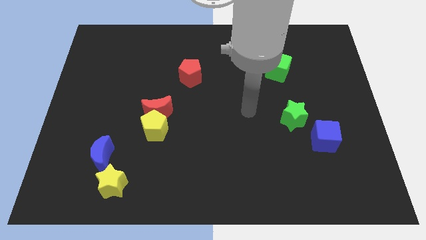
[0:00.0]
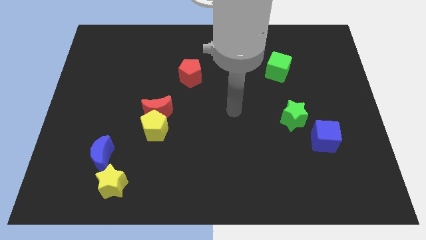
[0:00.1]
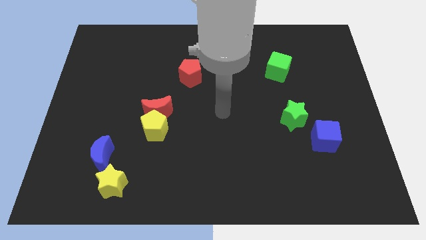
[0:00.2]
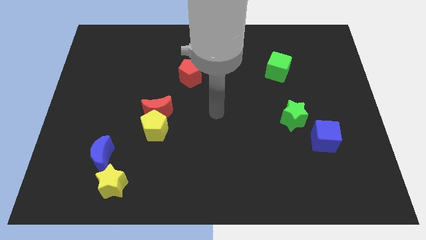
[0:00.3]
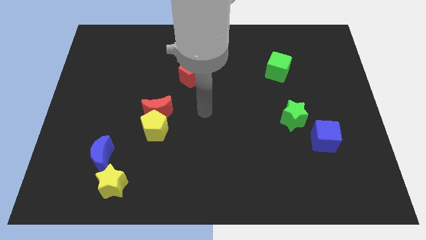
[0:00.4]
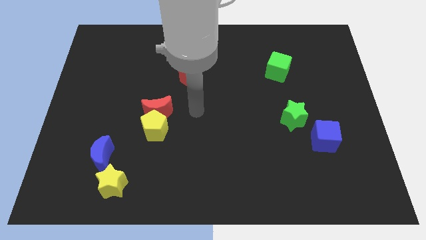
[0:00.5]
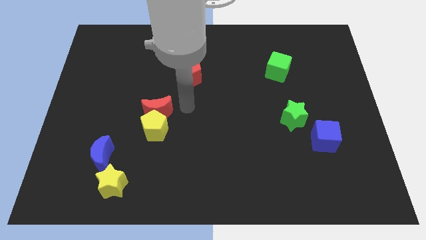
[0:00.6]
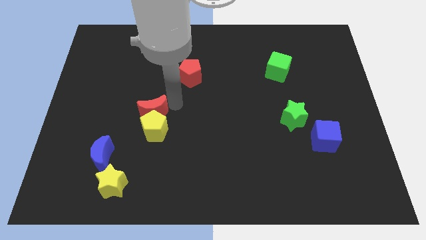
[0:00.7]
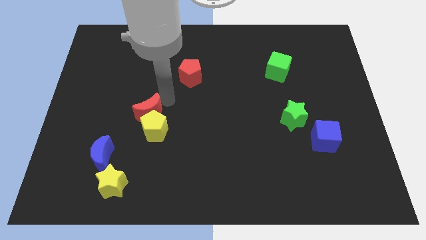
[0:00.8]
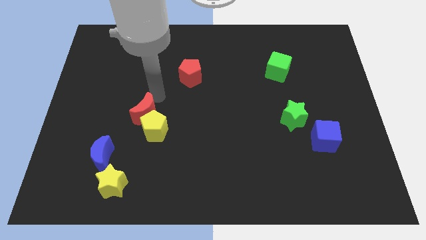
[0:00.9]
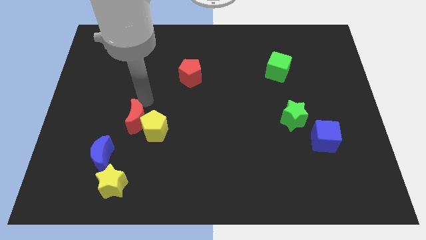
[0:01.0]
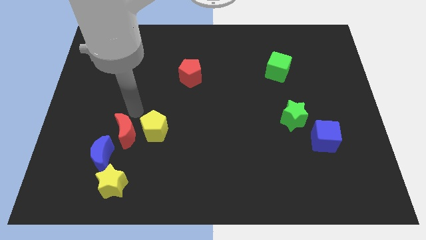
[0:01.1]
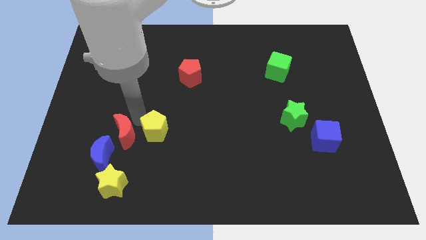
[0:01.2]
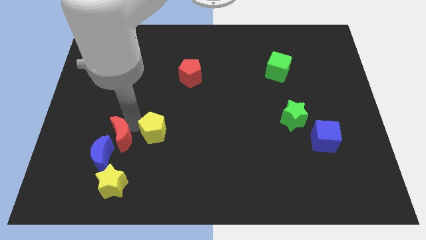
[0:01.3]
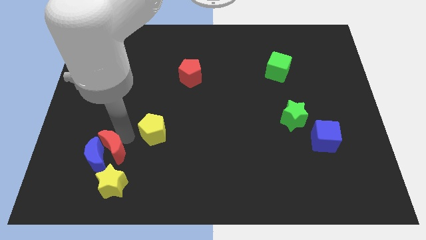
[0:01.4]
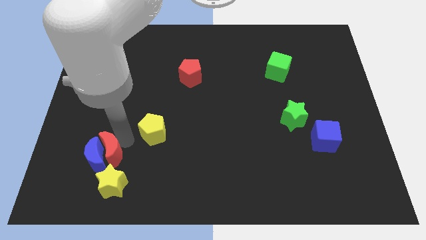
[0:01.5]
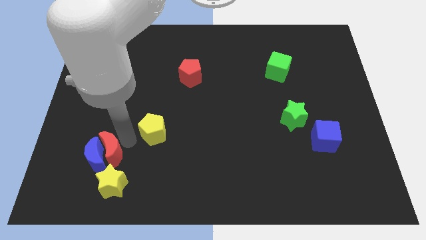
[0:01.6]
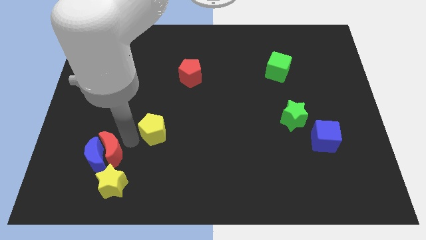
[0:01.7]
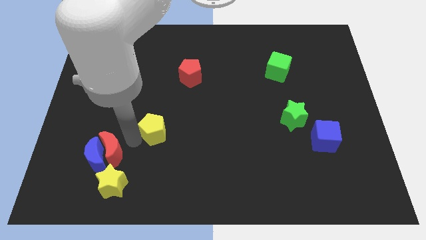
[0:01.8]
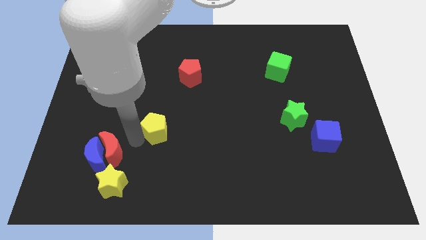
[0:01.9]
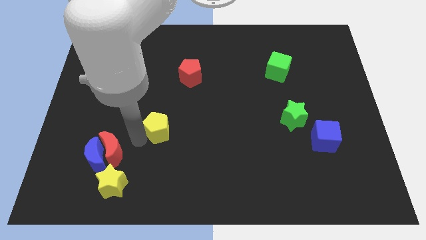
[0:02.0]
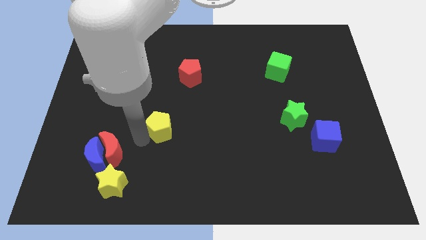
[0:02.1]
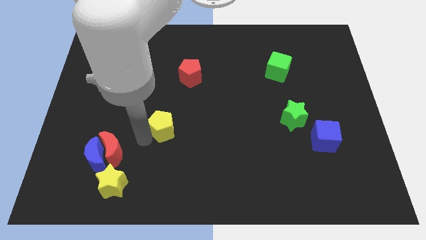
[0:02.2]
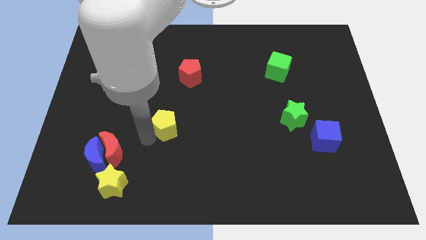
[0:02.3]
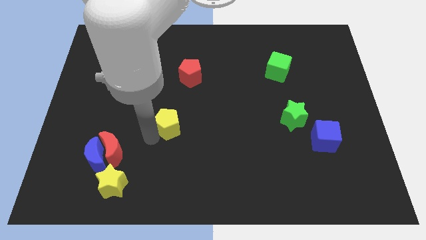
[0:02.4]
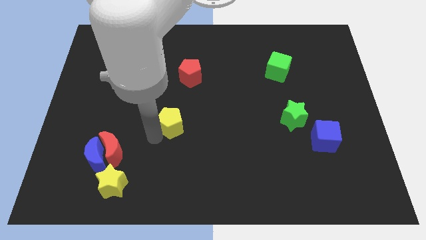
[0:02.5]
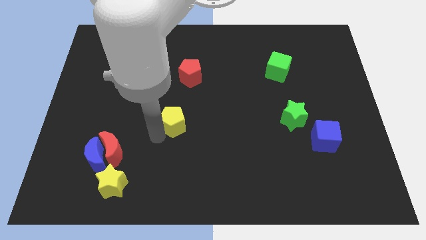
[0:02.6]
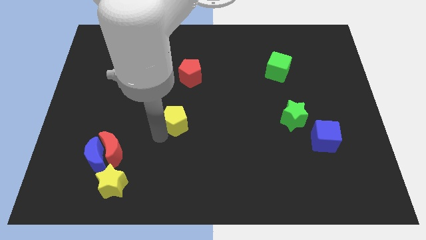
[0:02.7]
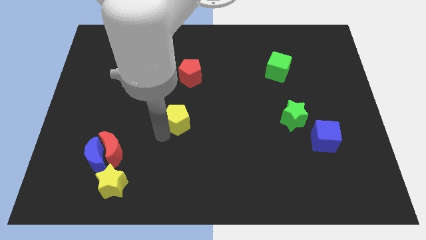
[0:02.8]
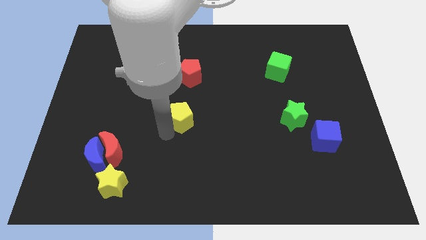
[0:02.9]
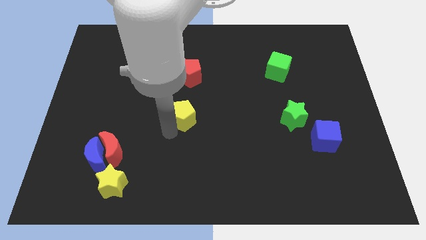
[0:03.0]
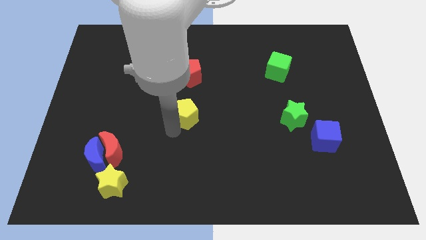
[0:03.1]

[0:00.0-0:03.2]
move the yellow pentagon upwards and right slightly

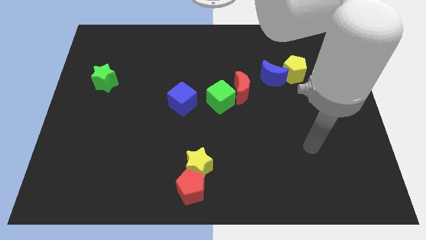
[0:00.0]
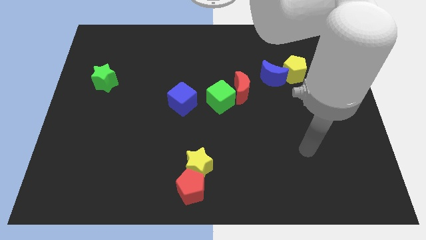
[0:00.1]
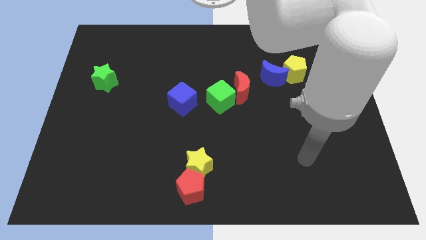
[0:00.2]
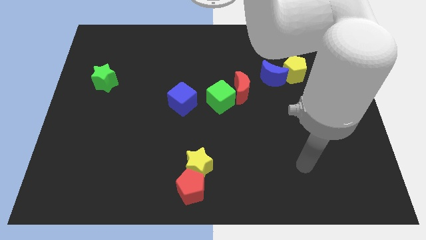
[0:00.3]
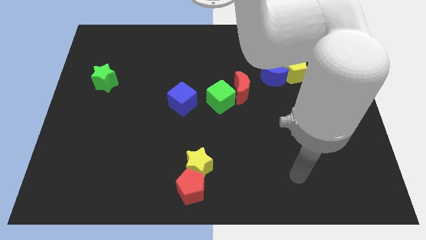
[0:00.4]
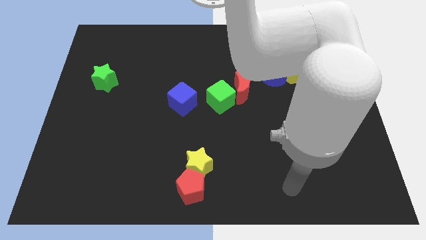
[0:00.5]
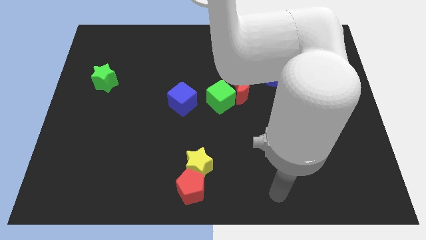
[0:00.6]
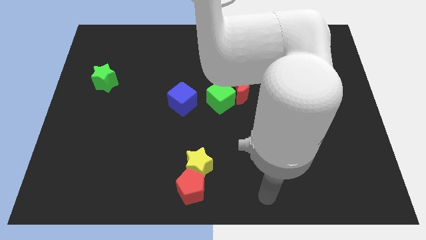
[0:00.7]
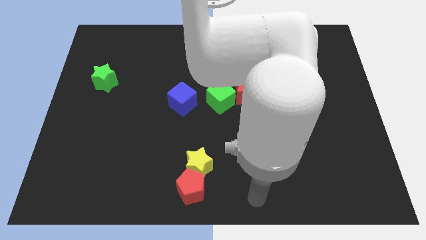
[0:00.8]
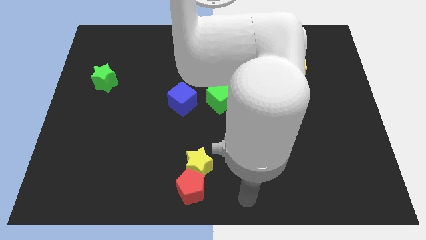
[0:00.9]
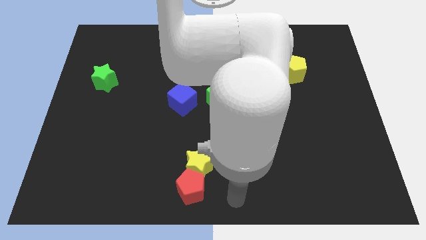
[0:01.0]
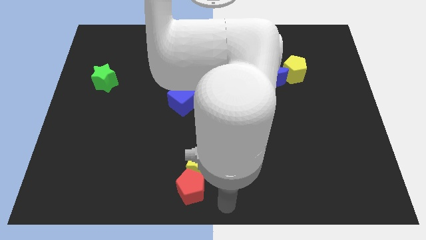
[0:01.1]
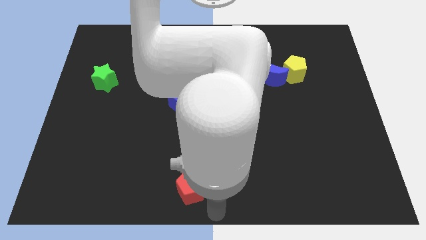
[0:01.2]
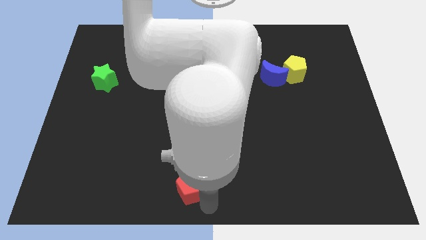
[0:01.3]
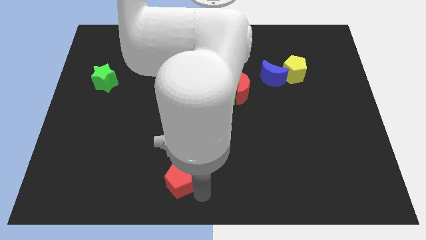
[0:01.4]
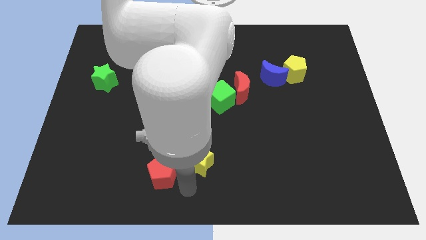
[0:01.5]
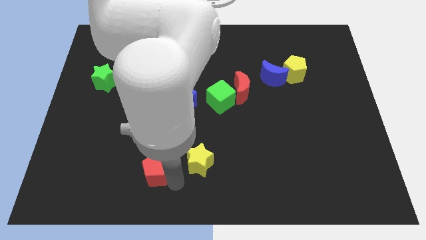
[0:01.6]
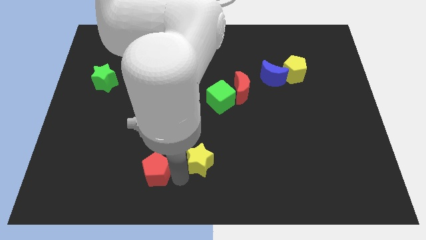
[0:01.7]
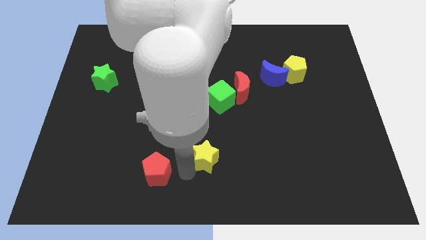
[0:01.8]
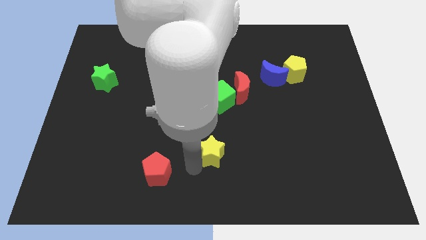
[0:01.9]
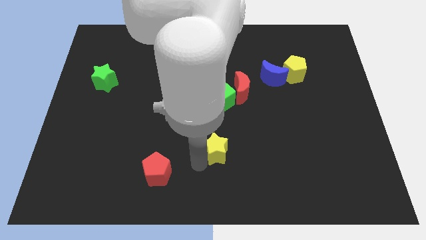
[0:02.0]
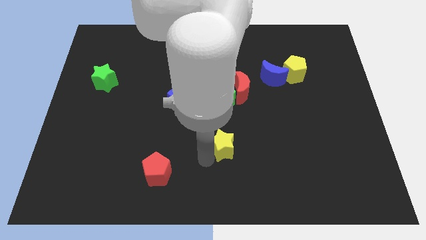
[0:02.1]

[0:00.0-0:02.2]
push the yellow star diagonally upwards and to the right a little

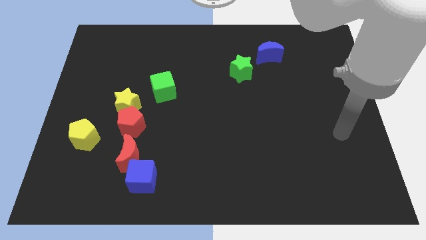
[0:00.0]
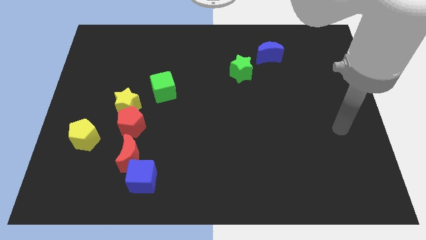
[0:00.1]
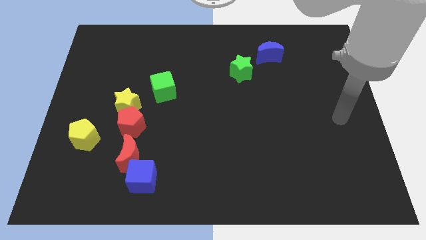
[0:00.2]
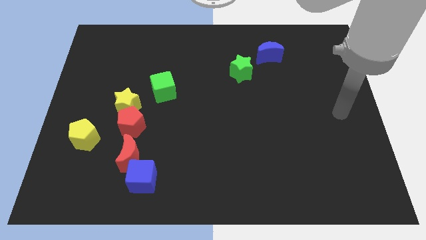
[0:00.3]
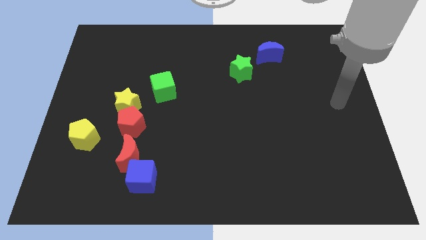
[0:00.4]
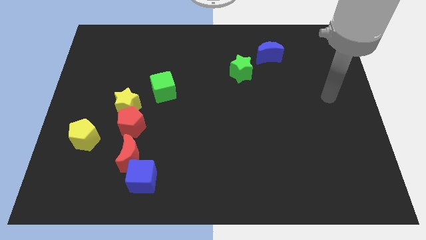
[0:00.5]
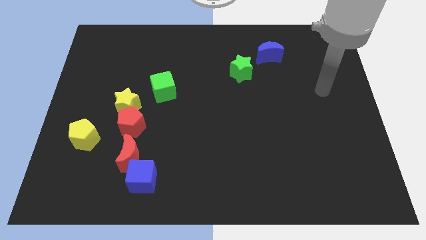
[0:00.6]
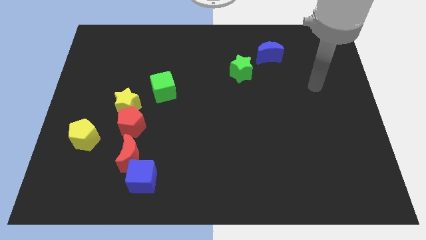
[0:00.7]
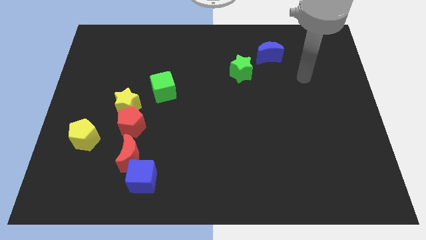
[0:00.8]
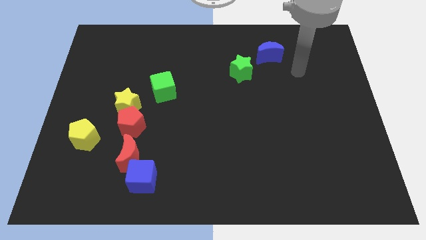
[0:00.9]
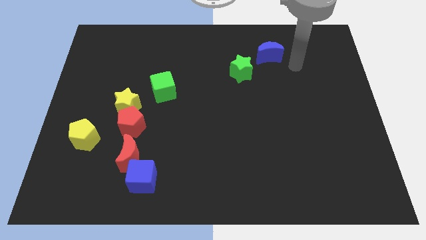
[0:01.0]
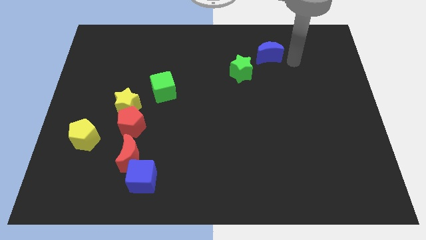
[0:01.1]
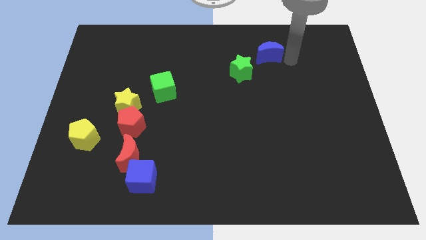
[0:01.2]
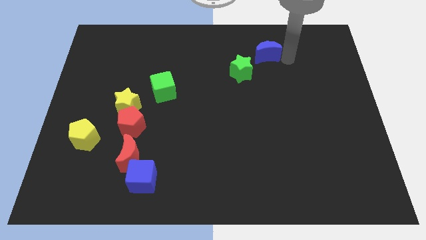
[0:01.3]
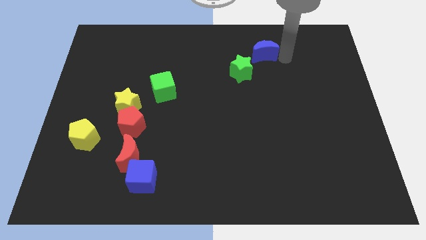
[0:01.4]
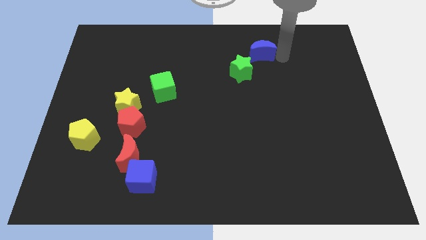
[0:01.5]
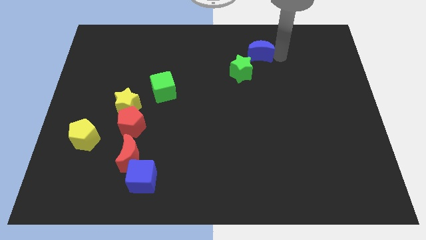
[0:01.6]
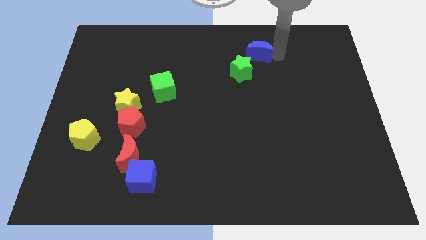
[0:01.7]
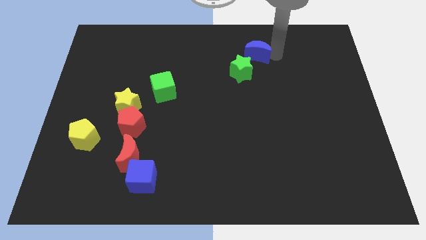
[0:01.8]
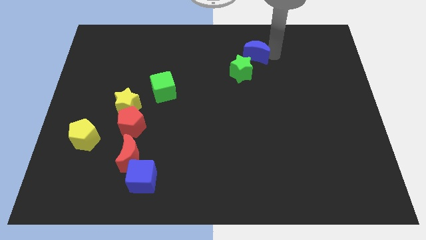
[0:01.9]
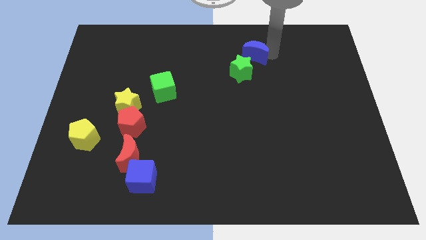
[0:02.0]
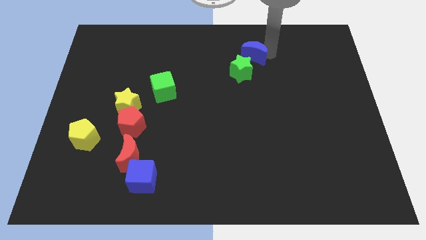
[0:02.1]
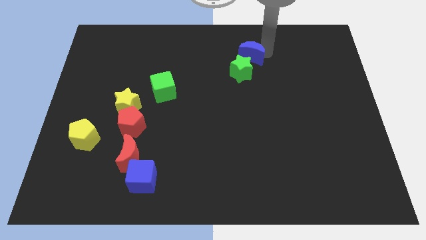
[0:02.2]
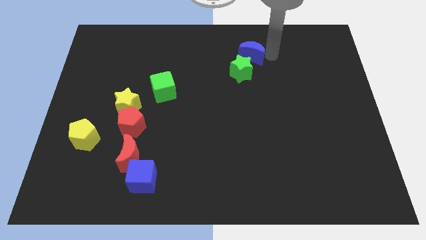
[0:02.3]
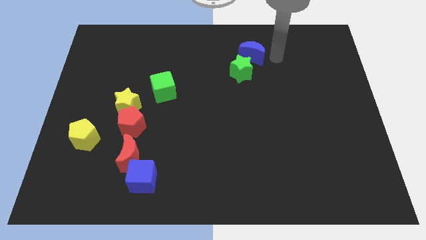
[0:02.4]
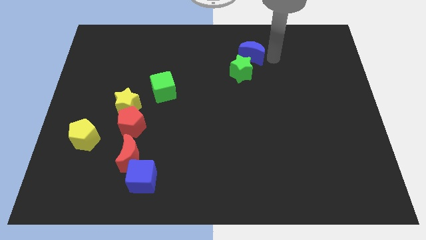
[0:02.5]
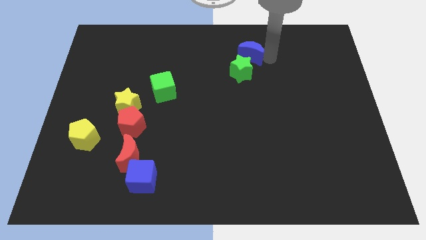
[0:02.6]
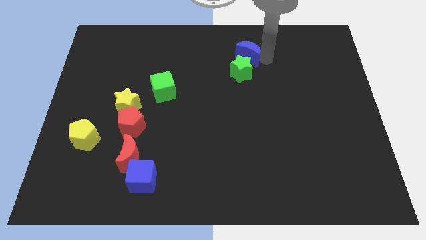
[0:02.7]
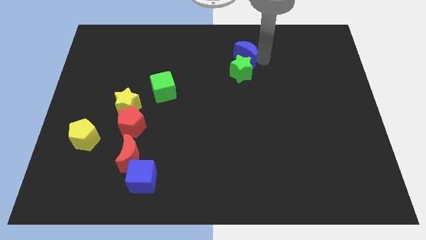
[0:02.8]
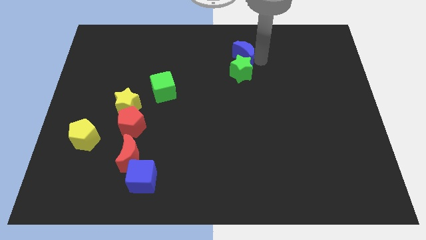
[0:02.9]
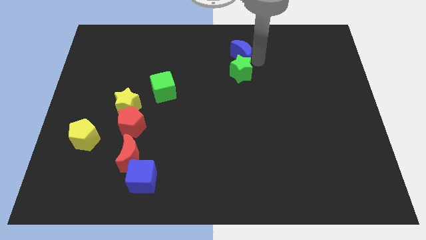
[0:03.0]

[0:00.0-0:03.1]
slightly move the blue moon to the left
